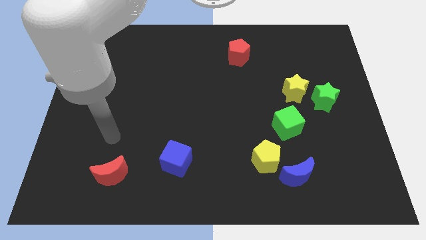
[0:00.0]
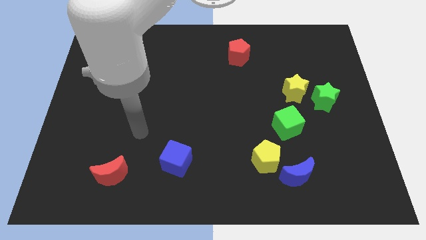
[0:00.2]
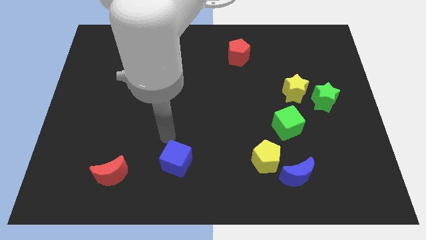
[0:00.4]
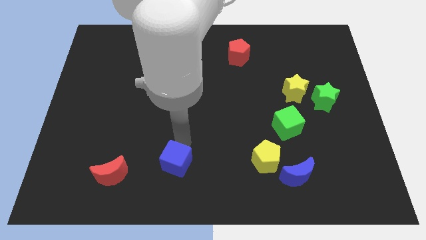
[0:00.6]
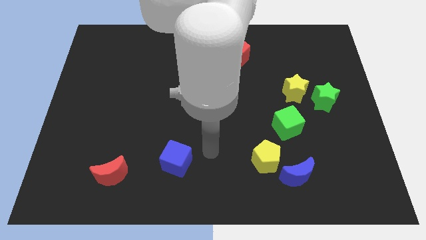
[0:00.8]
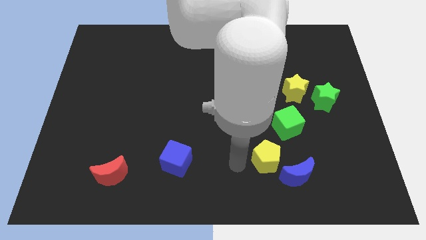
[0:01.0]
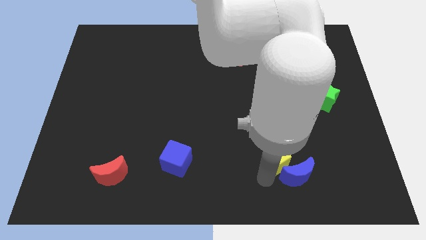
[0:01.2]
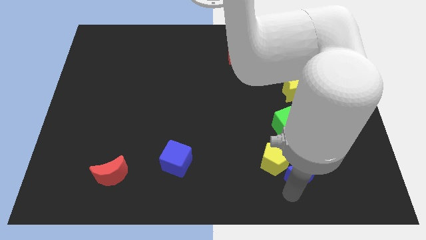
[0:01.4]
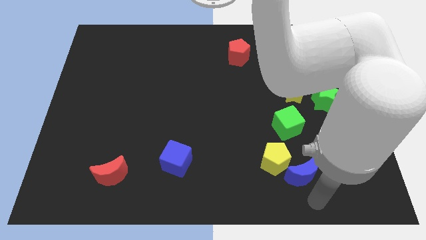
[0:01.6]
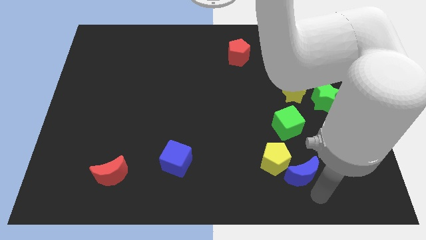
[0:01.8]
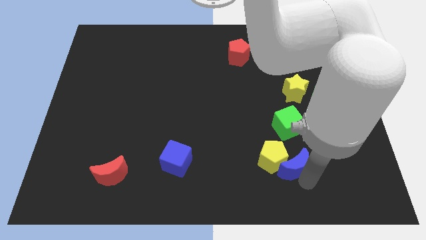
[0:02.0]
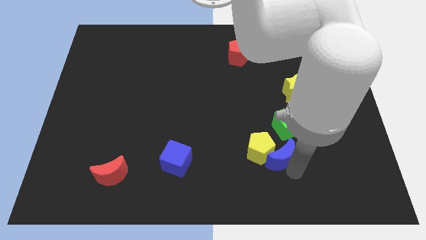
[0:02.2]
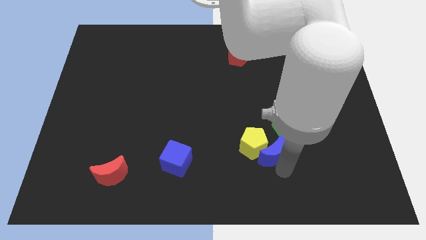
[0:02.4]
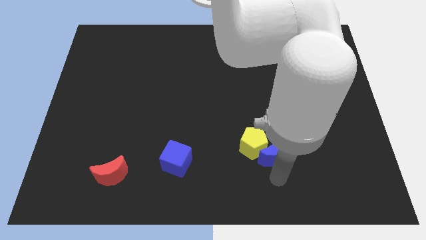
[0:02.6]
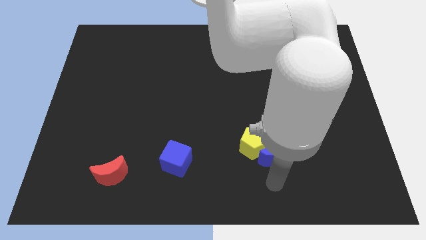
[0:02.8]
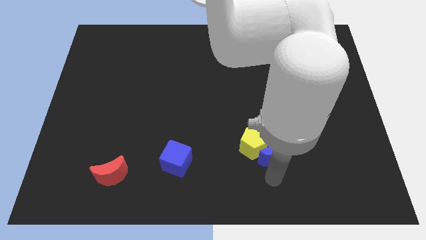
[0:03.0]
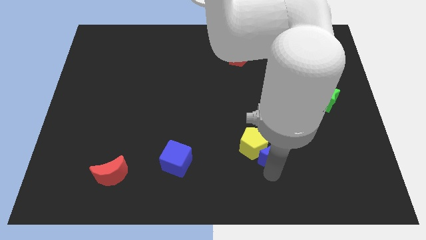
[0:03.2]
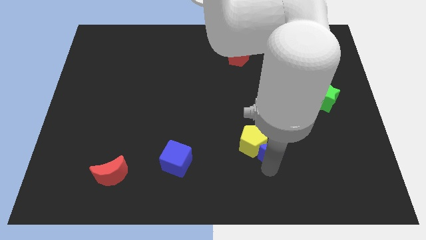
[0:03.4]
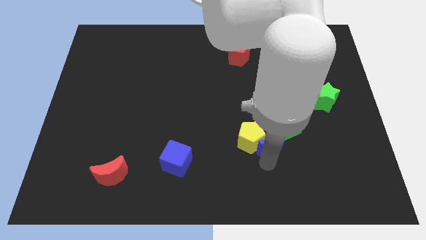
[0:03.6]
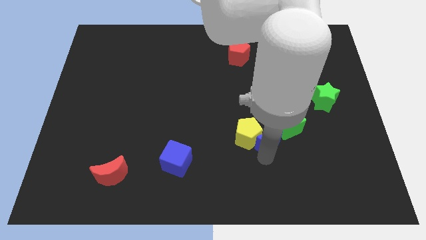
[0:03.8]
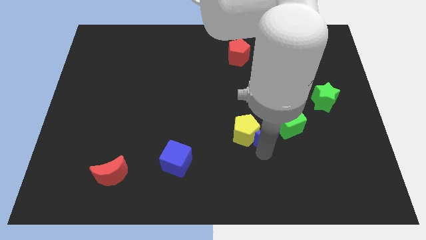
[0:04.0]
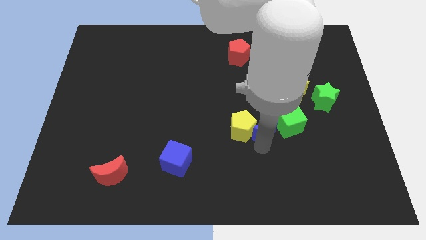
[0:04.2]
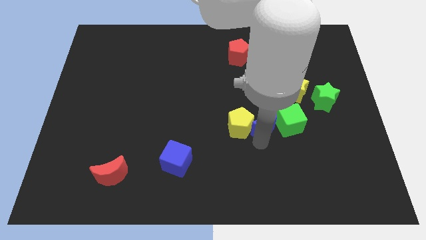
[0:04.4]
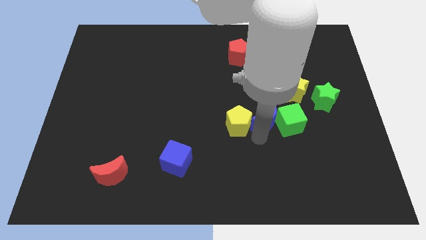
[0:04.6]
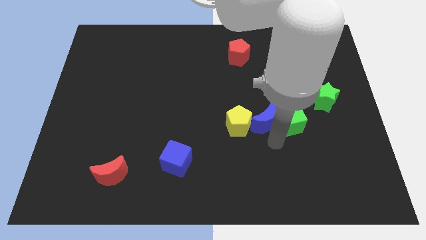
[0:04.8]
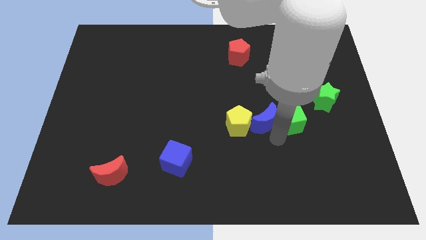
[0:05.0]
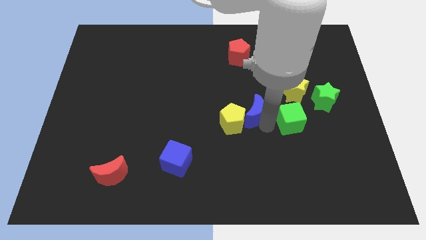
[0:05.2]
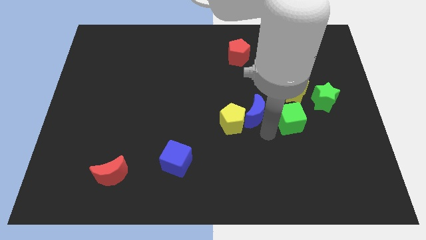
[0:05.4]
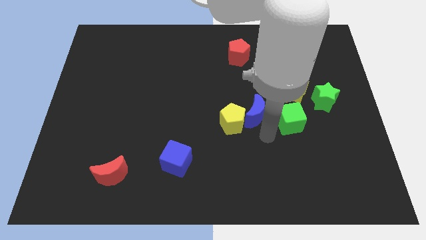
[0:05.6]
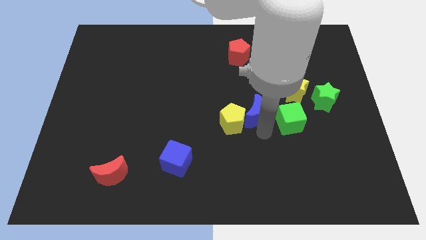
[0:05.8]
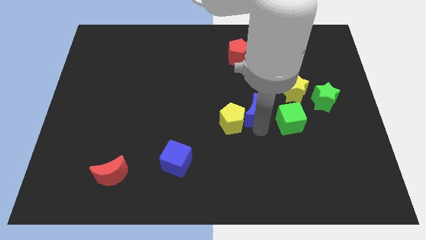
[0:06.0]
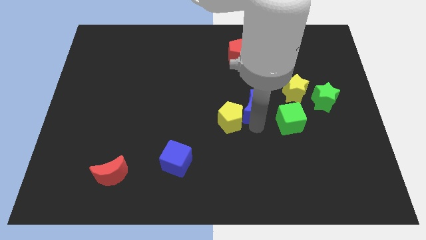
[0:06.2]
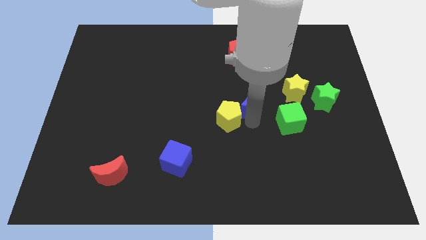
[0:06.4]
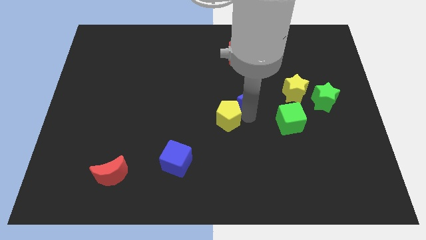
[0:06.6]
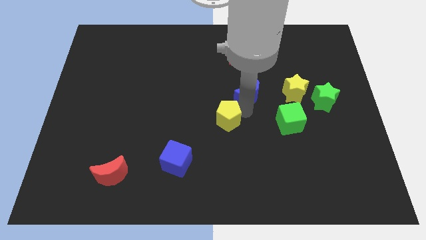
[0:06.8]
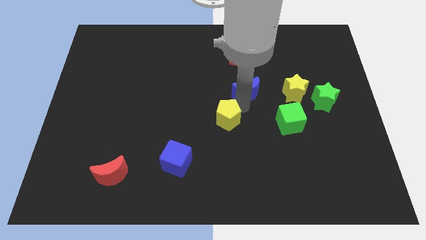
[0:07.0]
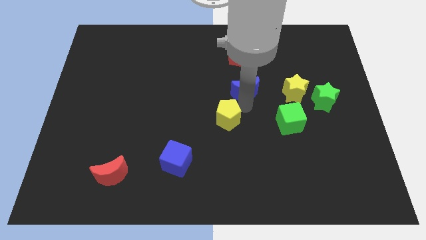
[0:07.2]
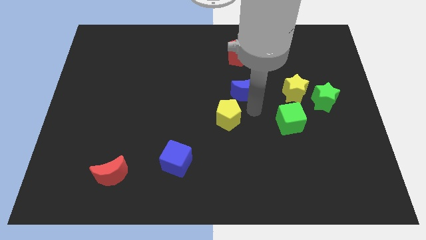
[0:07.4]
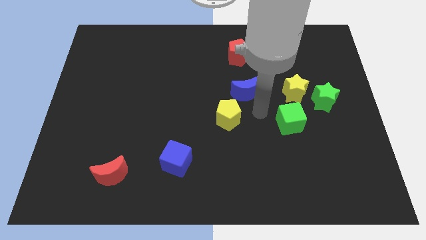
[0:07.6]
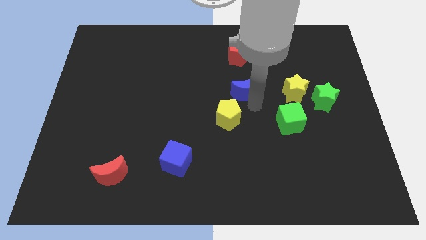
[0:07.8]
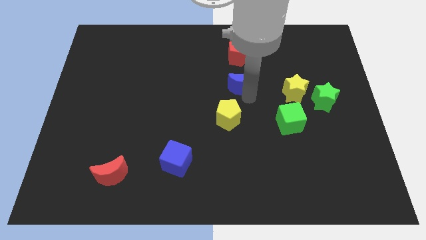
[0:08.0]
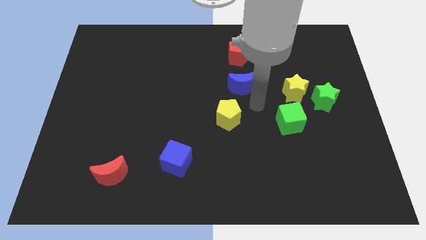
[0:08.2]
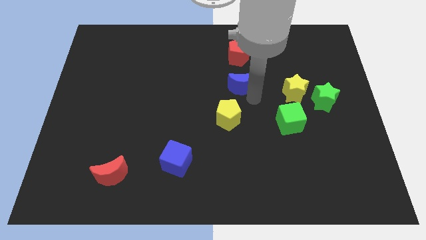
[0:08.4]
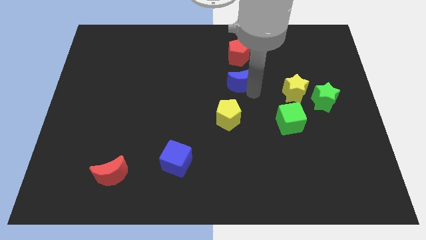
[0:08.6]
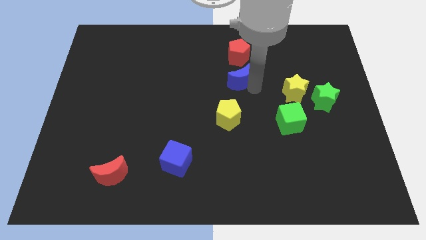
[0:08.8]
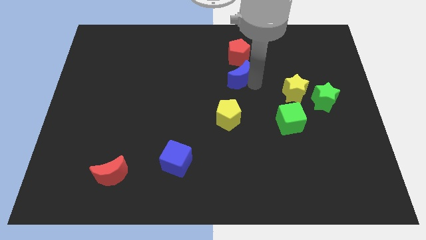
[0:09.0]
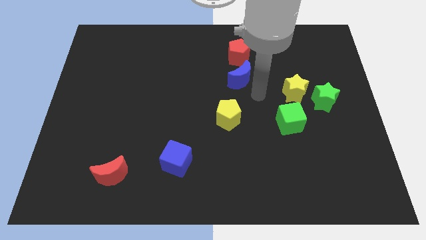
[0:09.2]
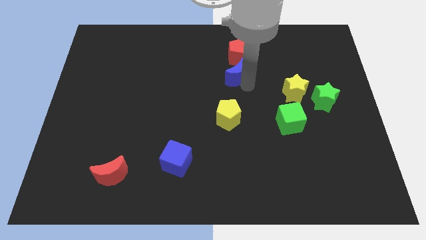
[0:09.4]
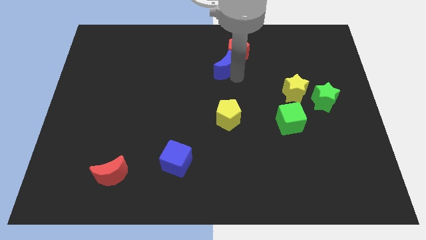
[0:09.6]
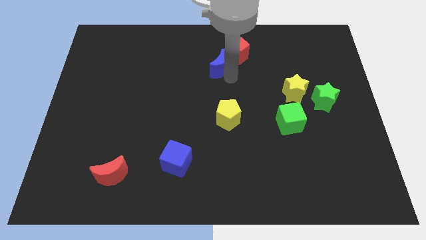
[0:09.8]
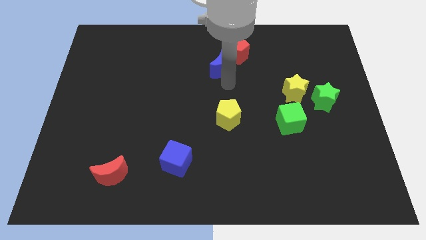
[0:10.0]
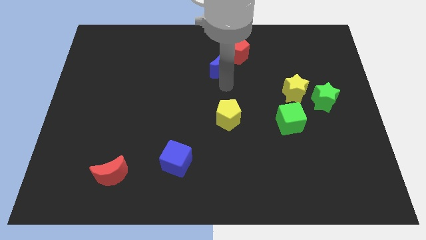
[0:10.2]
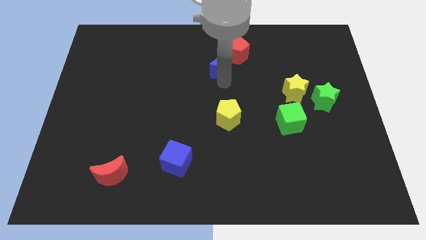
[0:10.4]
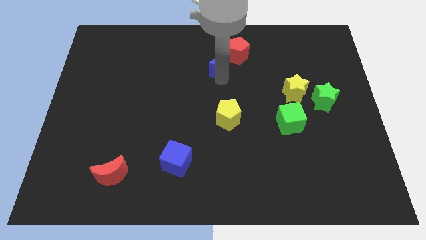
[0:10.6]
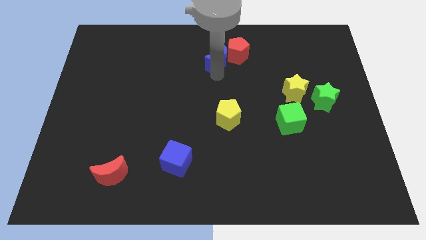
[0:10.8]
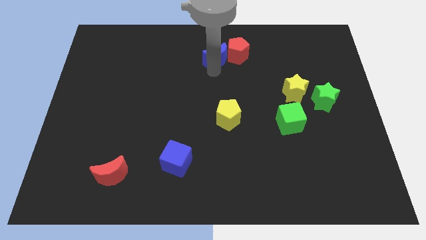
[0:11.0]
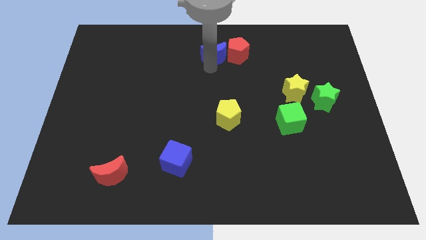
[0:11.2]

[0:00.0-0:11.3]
slide the blue moon to the top

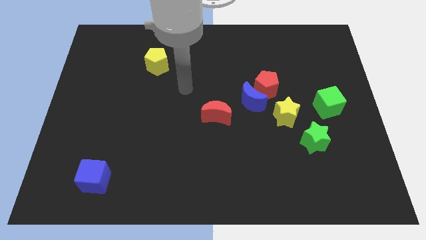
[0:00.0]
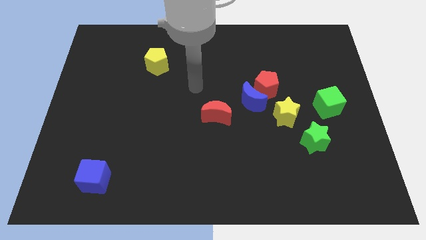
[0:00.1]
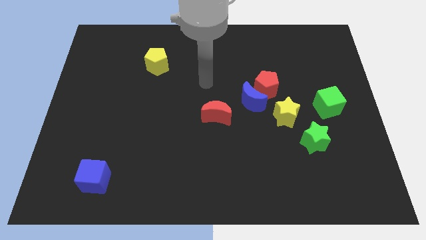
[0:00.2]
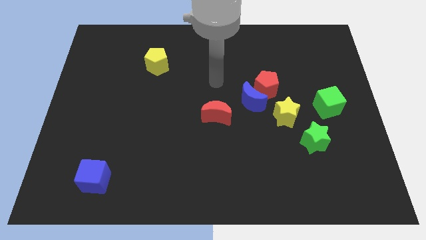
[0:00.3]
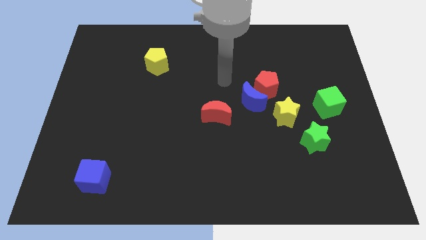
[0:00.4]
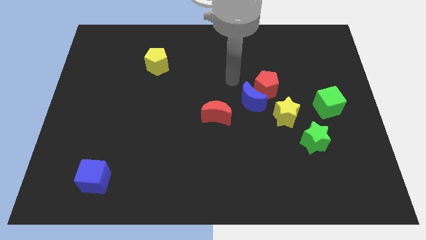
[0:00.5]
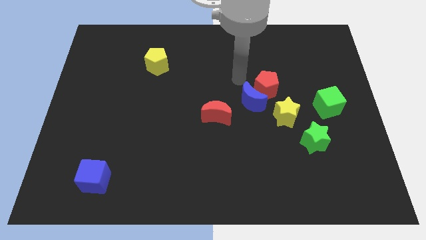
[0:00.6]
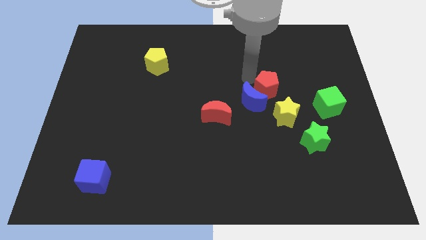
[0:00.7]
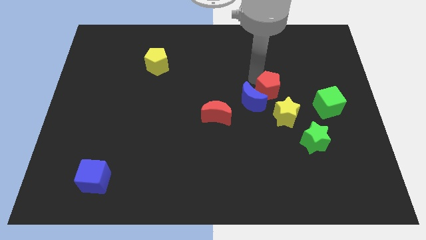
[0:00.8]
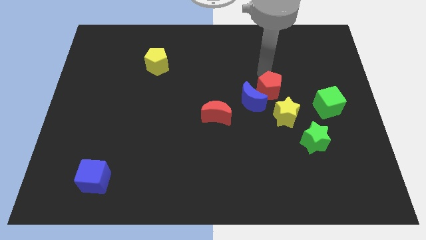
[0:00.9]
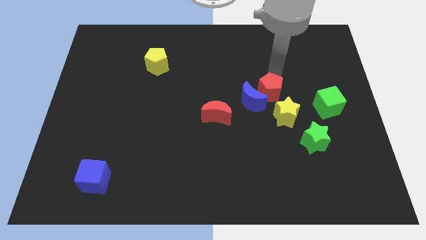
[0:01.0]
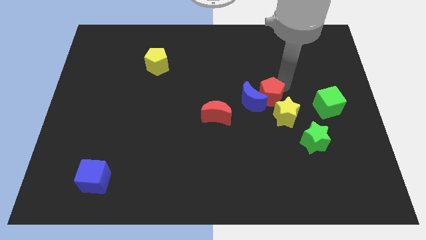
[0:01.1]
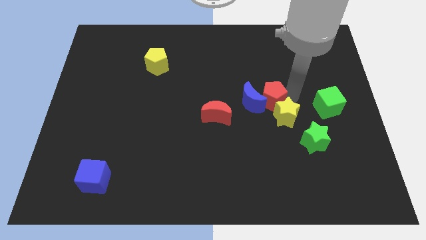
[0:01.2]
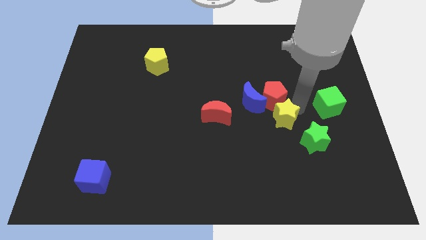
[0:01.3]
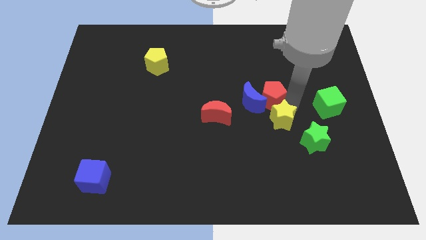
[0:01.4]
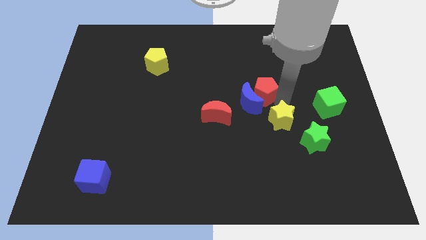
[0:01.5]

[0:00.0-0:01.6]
push the red pentagon to the middle of the board
